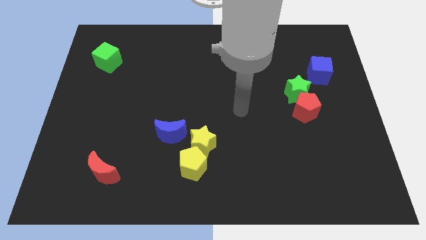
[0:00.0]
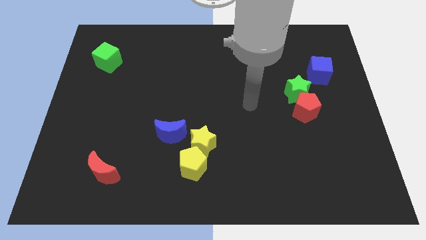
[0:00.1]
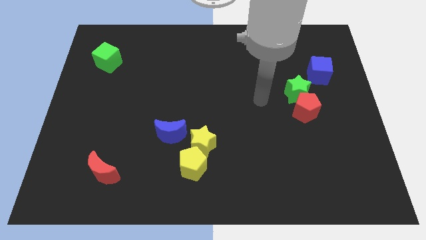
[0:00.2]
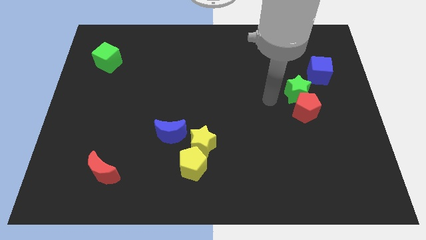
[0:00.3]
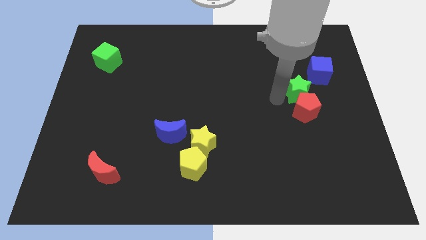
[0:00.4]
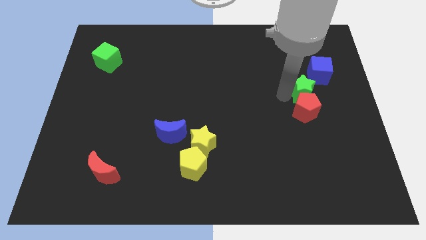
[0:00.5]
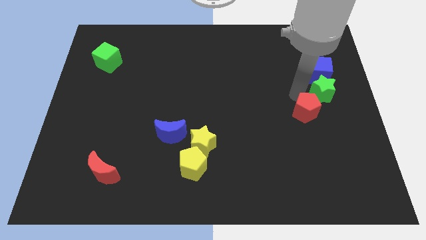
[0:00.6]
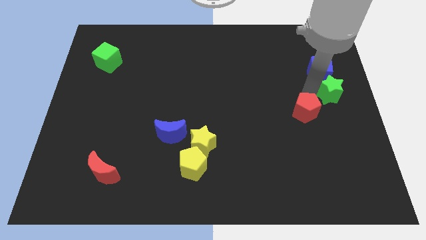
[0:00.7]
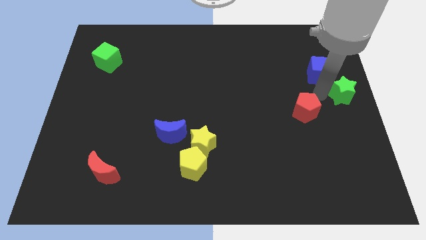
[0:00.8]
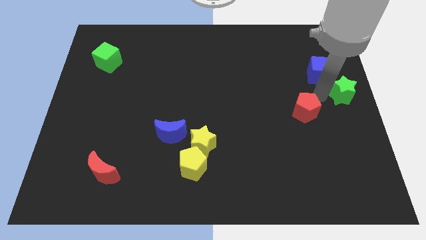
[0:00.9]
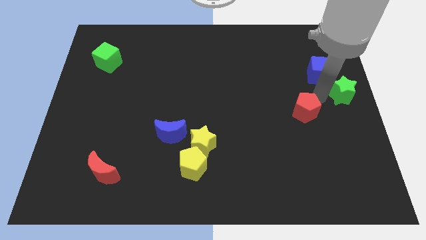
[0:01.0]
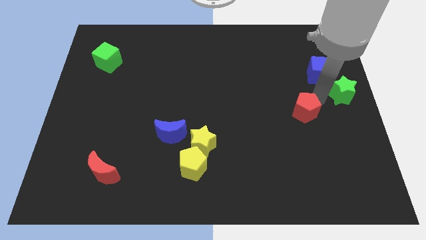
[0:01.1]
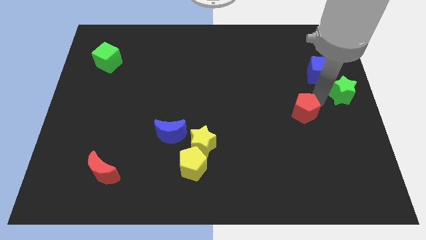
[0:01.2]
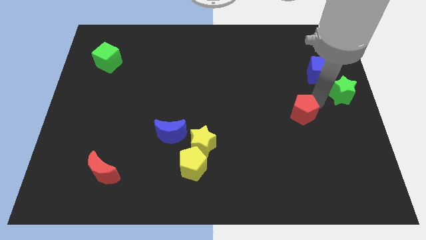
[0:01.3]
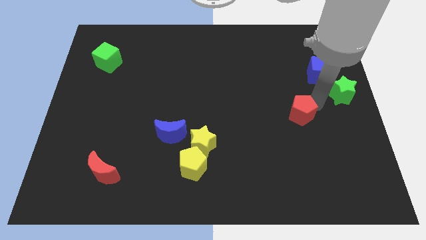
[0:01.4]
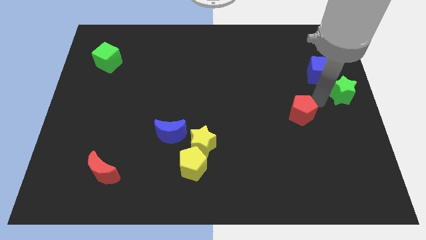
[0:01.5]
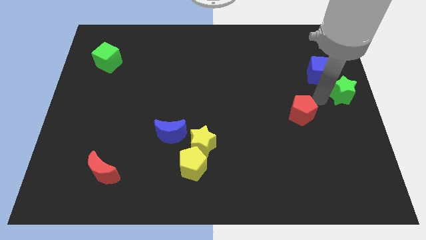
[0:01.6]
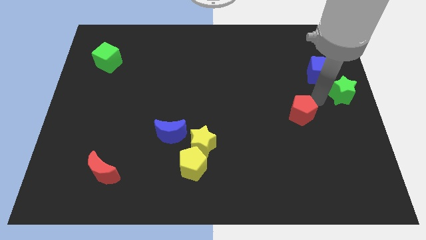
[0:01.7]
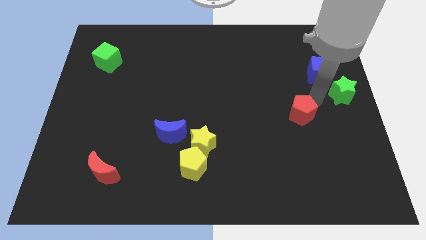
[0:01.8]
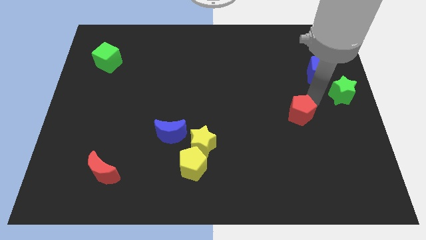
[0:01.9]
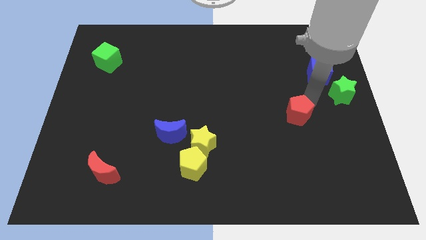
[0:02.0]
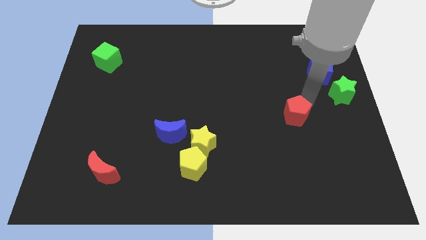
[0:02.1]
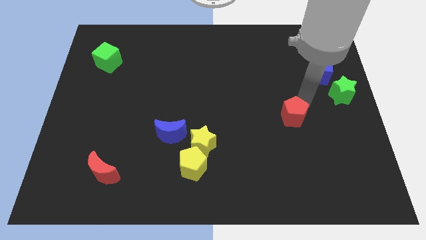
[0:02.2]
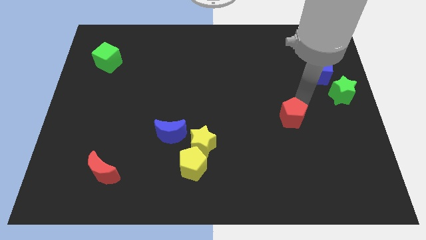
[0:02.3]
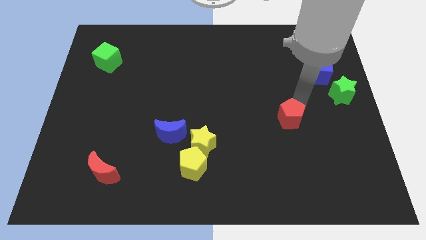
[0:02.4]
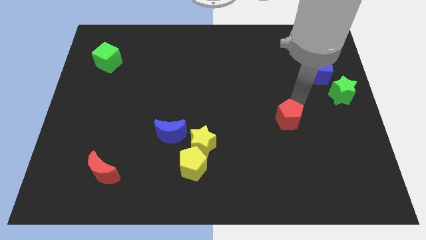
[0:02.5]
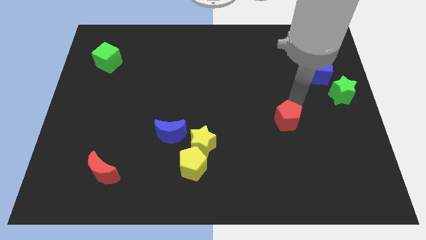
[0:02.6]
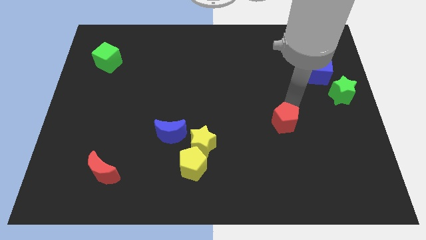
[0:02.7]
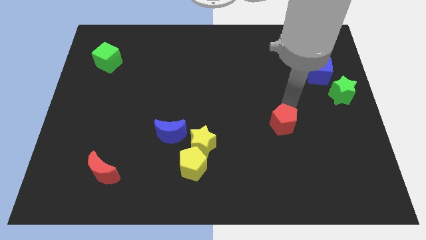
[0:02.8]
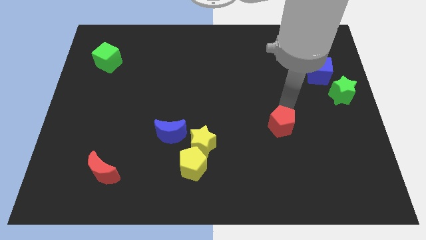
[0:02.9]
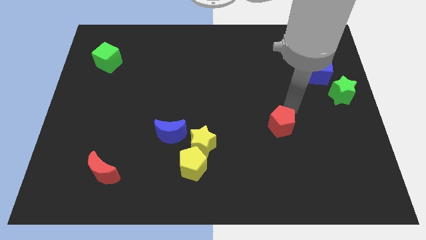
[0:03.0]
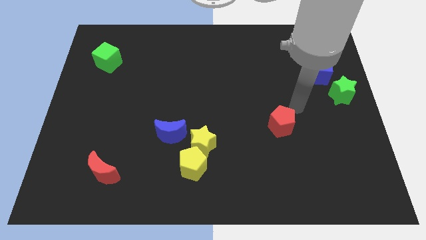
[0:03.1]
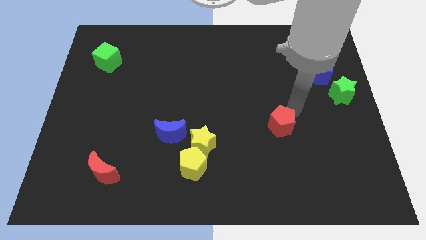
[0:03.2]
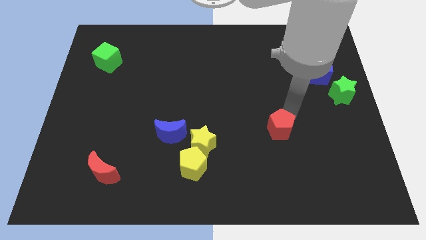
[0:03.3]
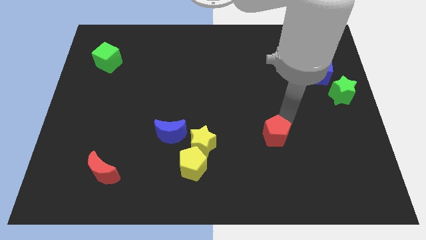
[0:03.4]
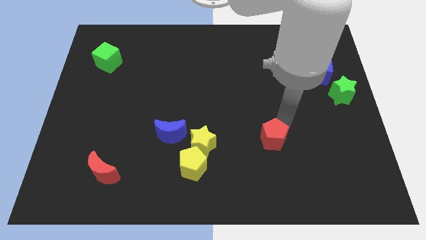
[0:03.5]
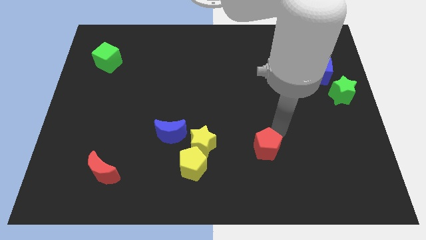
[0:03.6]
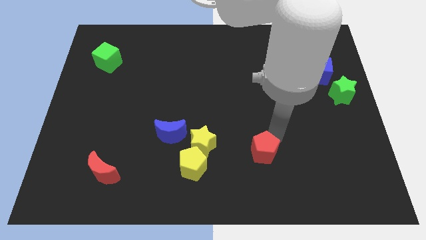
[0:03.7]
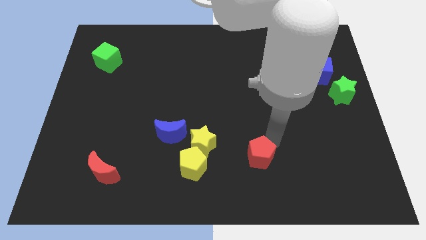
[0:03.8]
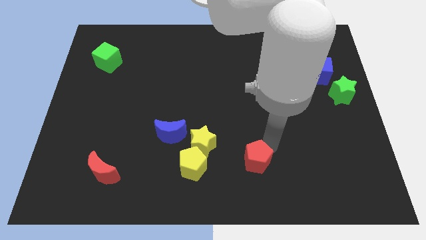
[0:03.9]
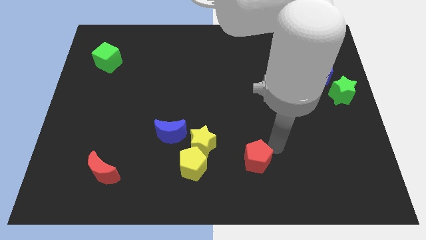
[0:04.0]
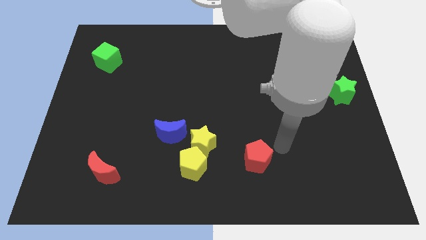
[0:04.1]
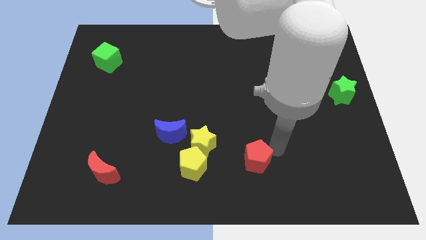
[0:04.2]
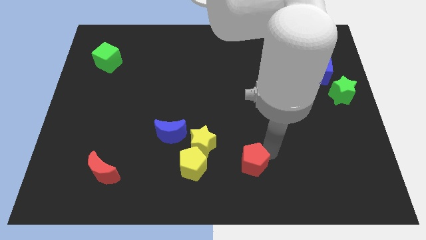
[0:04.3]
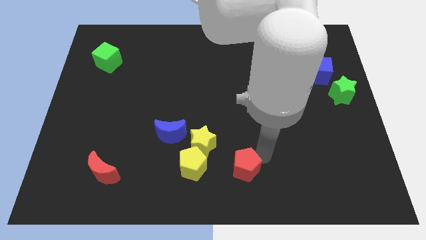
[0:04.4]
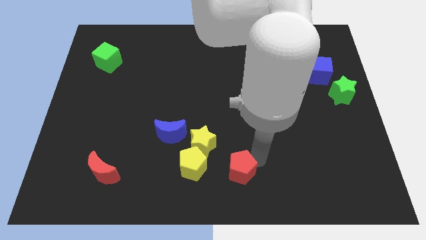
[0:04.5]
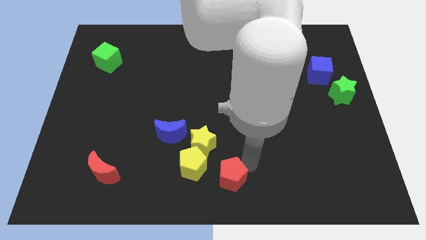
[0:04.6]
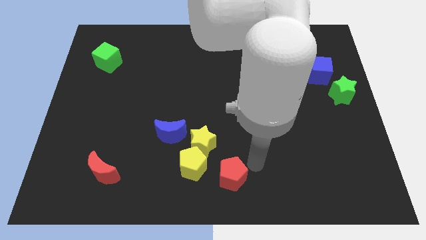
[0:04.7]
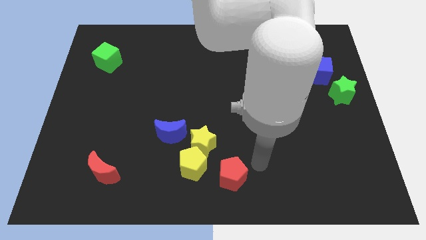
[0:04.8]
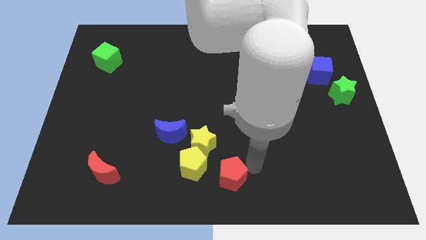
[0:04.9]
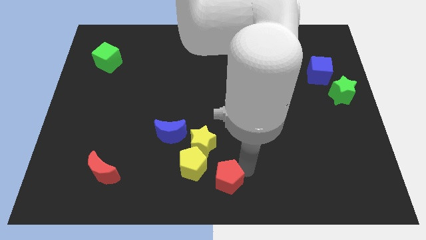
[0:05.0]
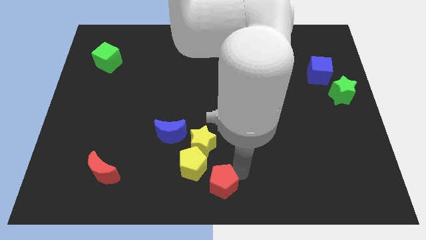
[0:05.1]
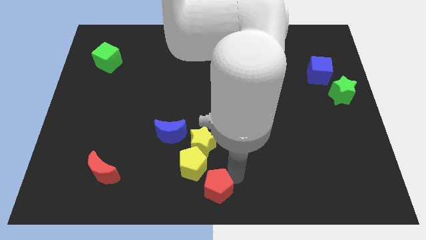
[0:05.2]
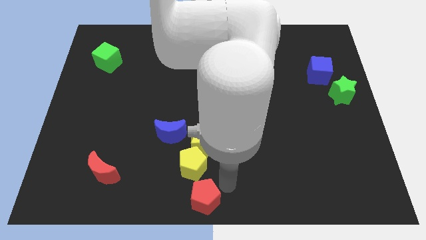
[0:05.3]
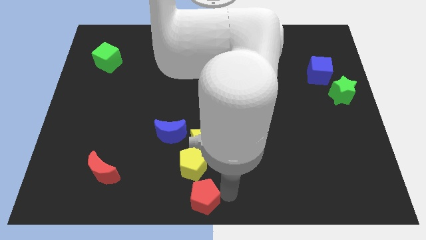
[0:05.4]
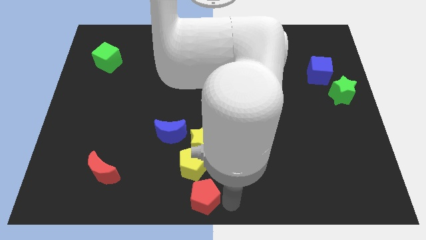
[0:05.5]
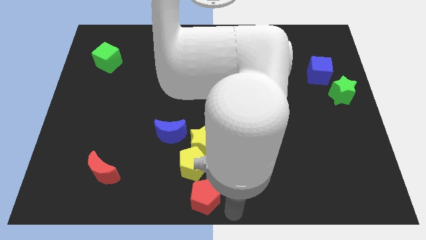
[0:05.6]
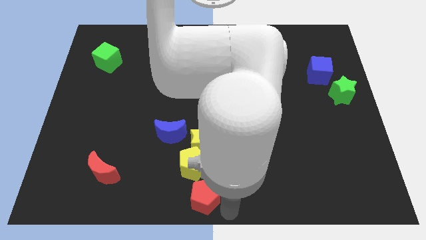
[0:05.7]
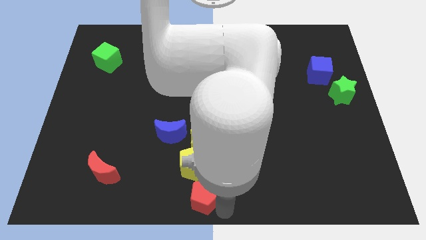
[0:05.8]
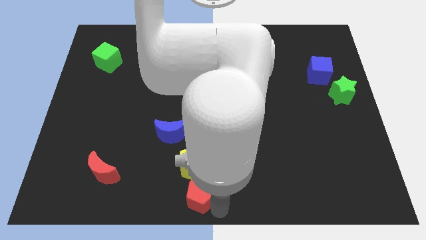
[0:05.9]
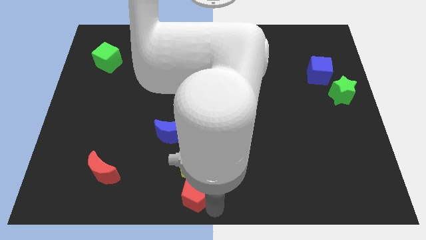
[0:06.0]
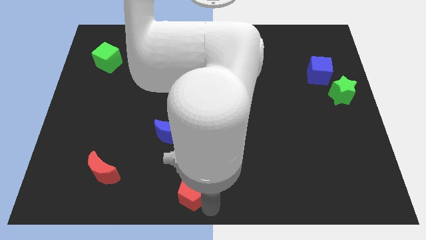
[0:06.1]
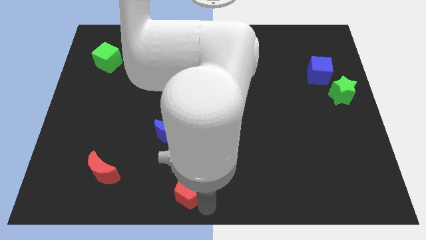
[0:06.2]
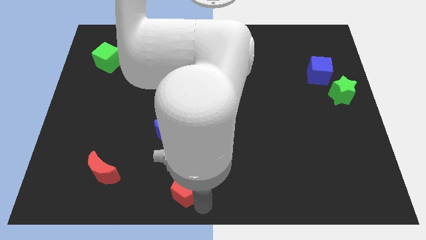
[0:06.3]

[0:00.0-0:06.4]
put the red pentagon below the blue moon
